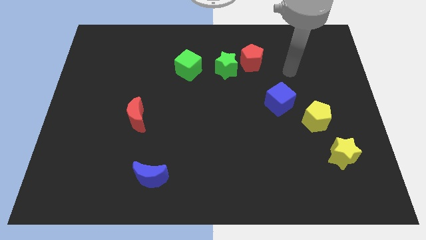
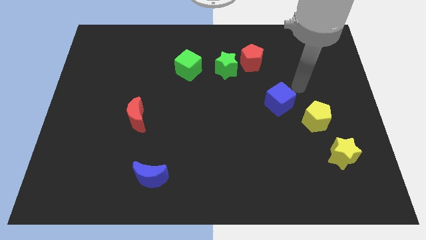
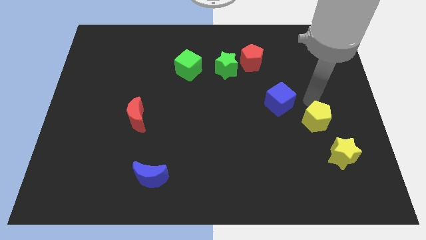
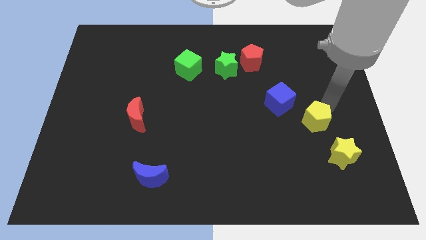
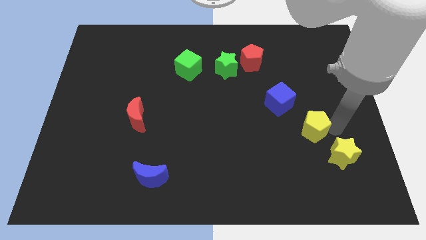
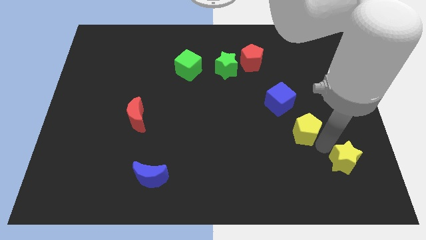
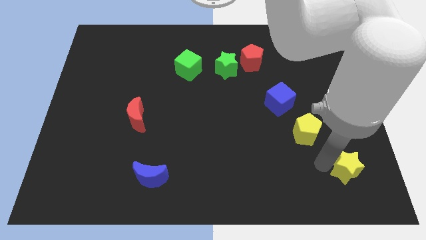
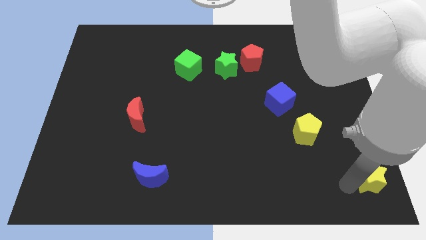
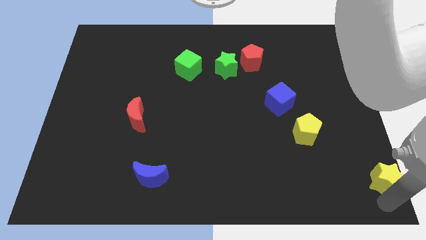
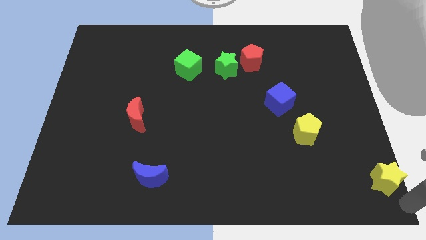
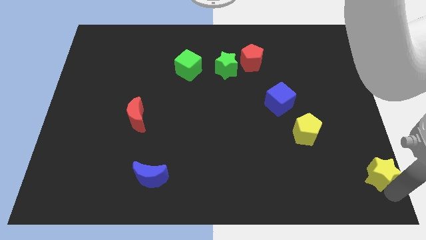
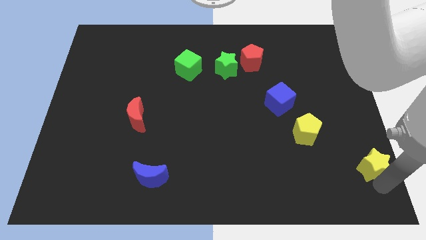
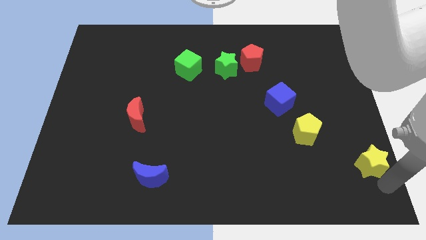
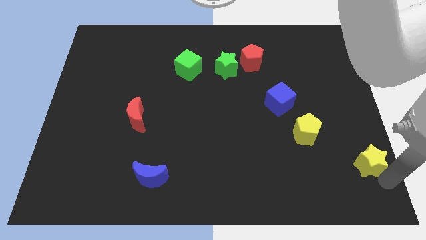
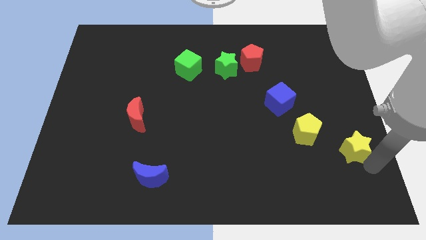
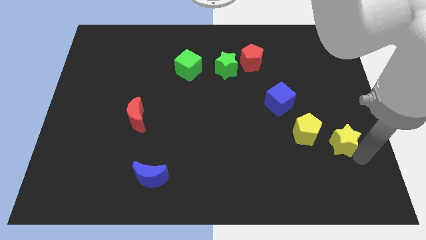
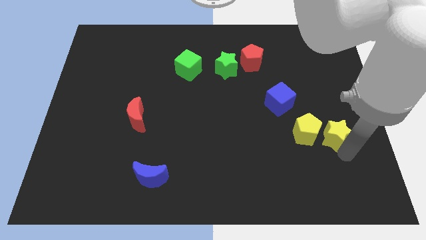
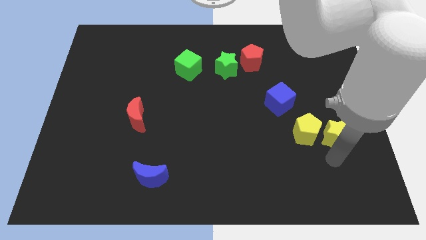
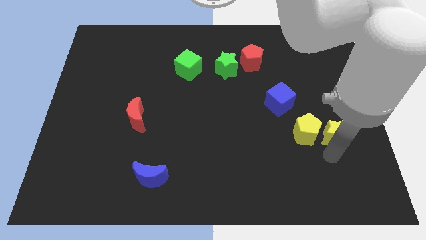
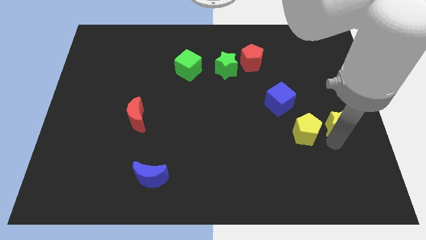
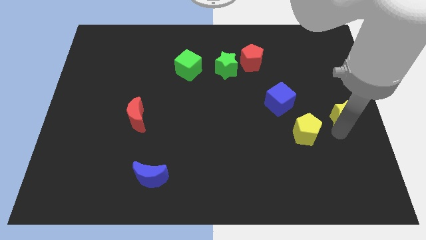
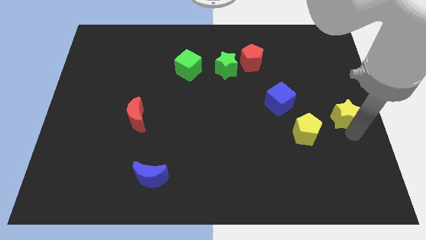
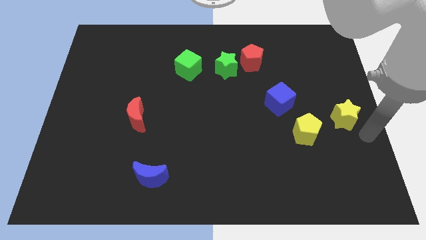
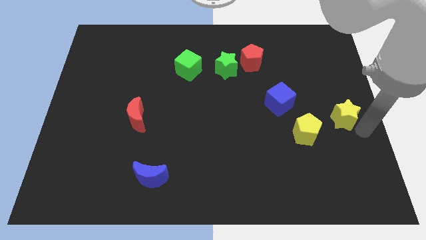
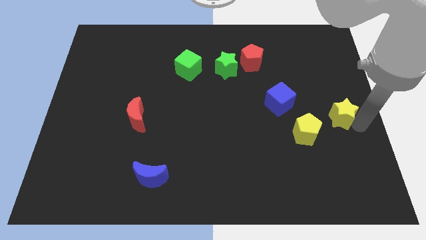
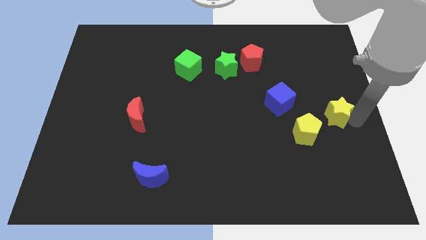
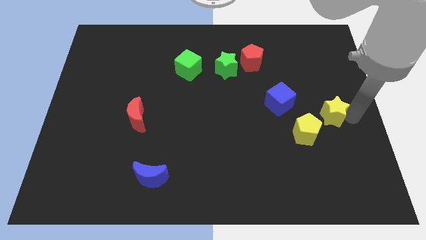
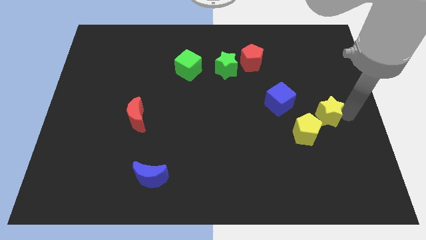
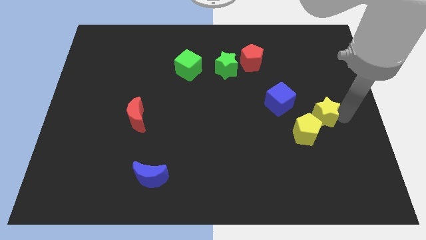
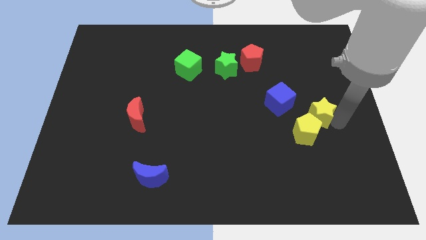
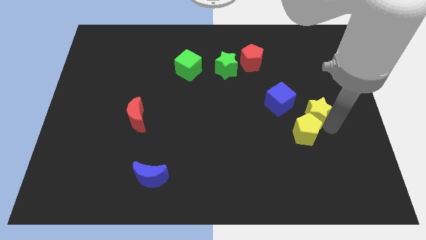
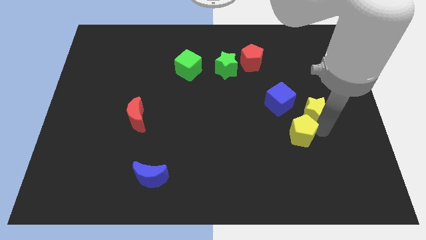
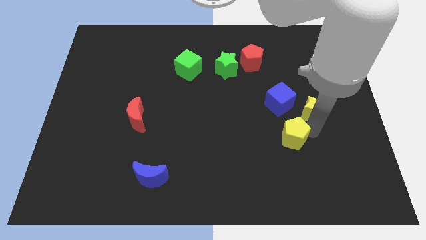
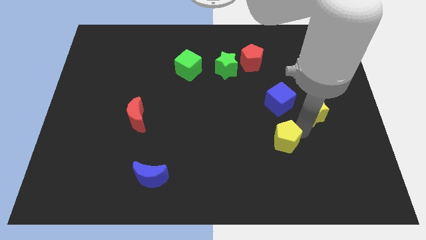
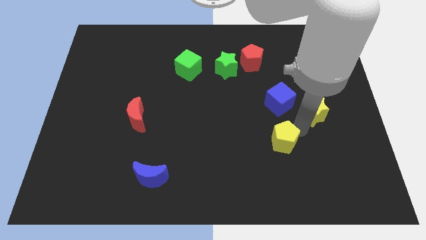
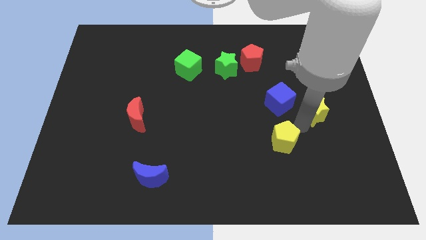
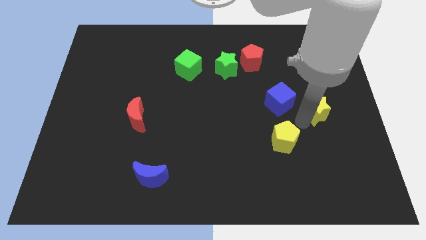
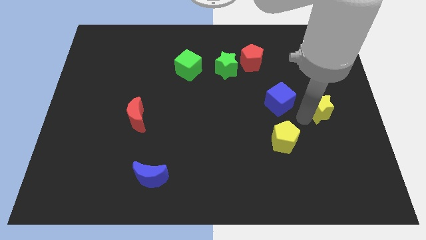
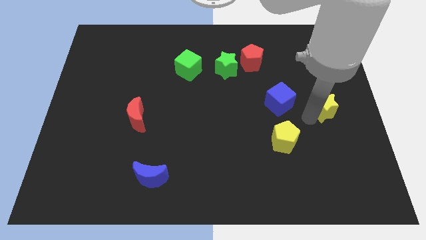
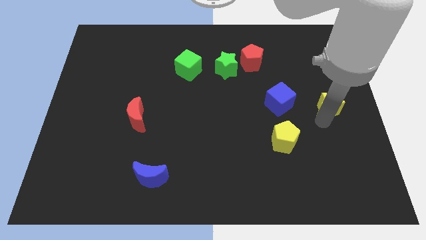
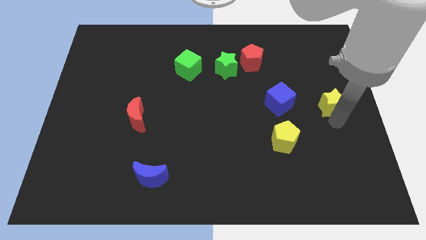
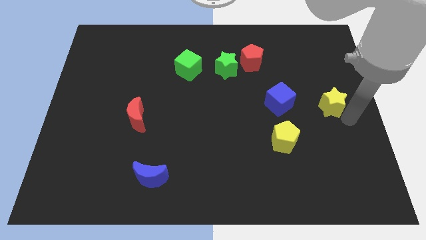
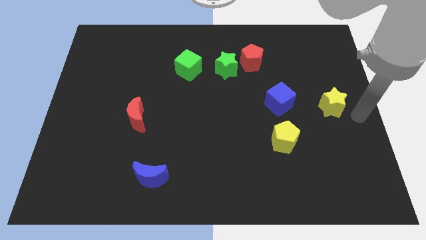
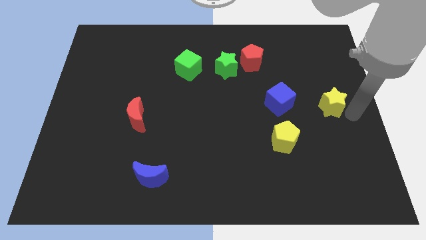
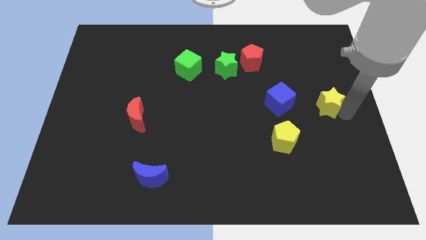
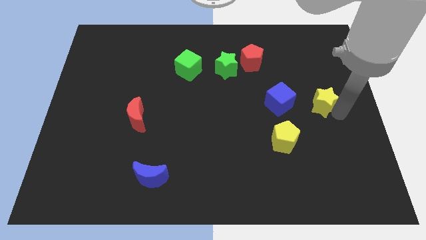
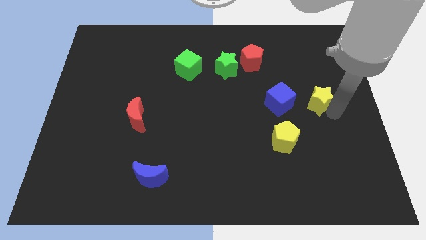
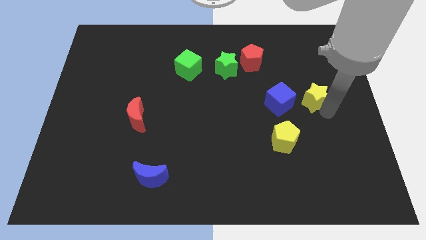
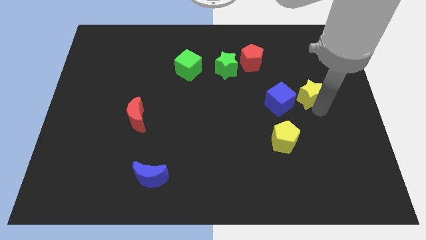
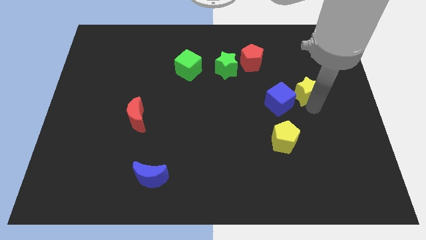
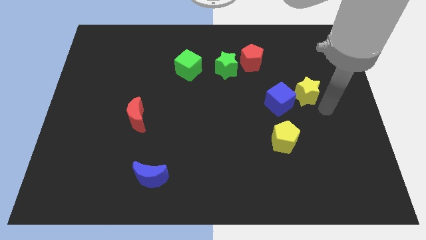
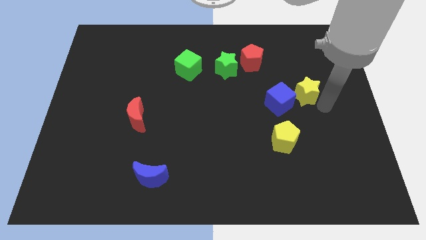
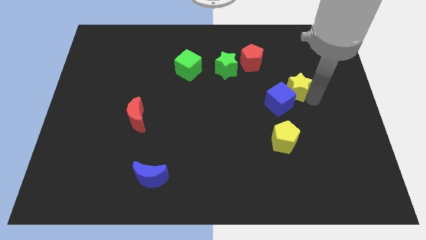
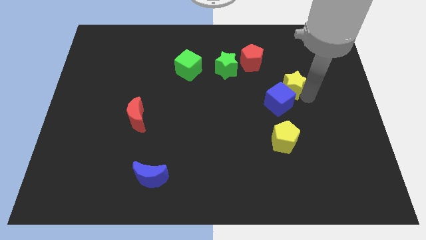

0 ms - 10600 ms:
push the yellow star to the top of the blue cube

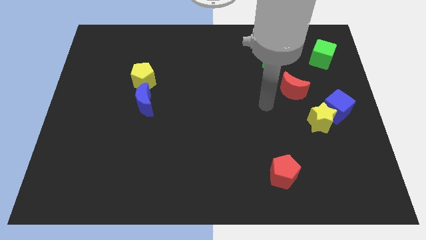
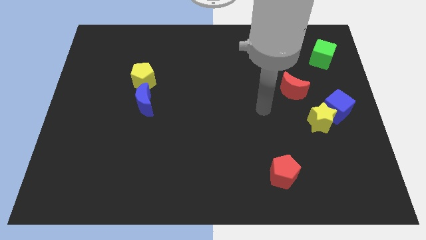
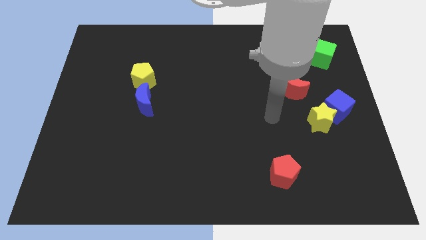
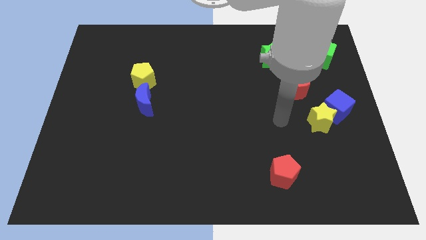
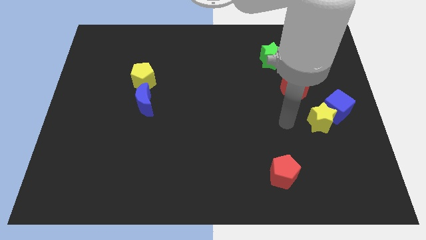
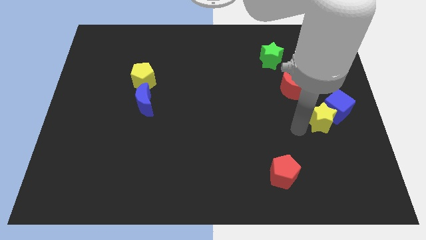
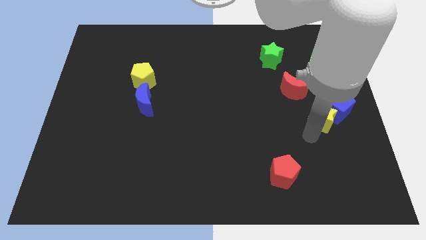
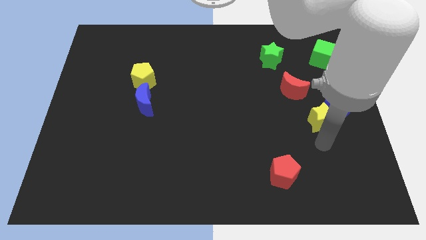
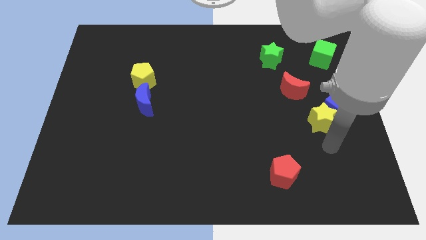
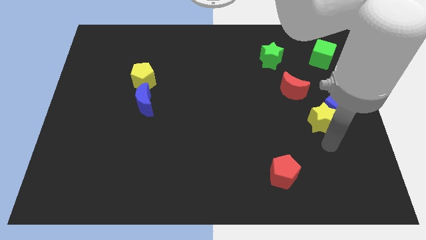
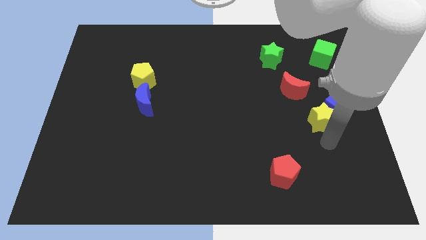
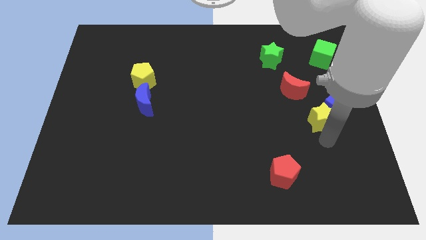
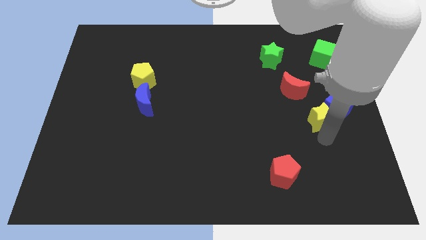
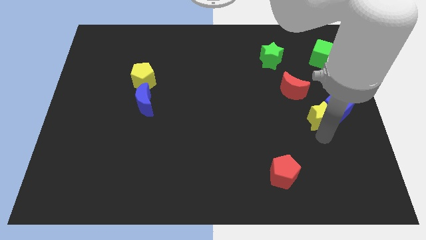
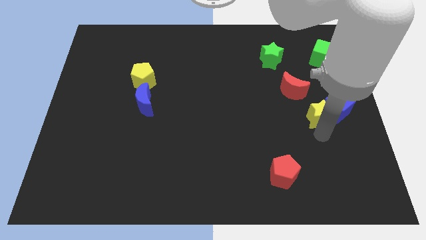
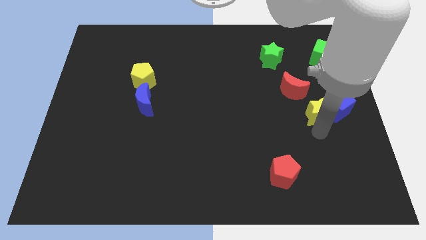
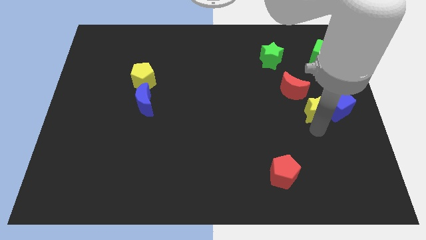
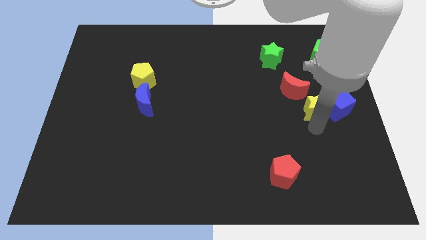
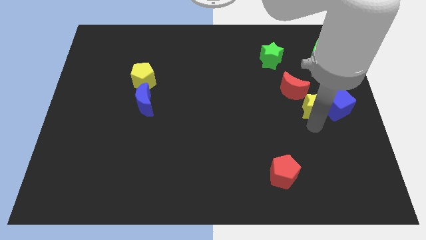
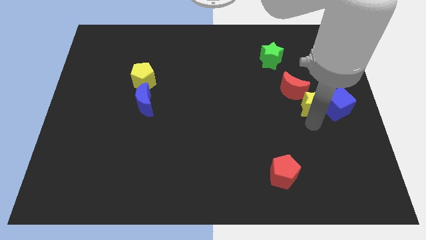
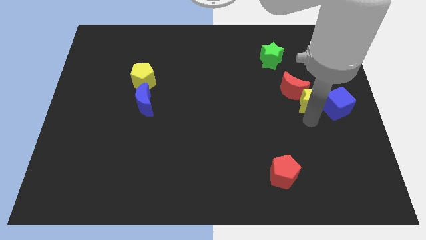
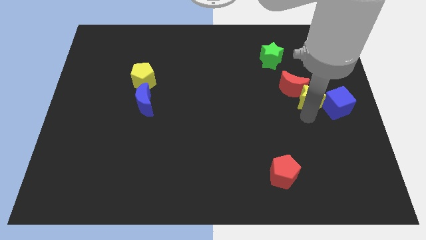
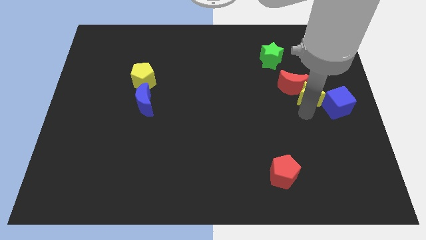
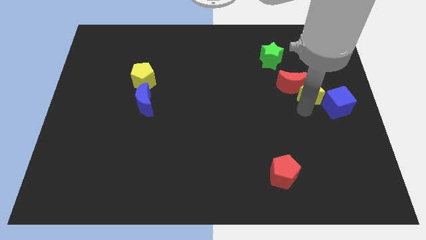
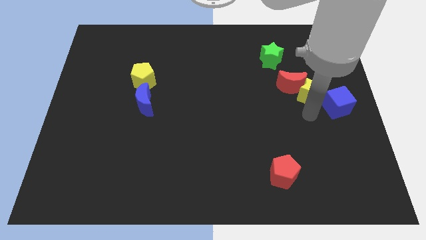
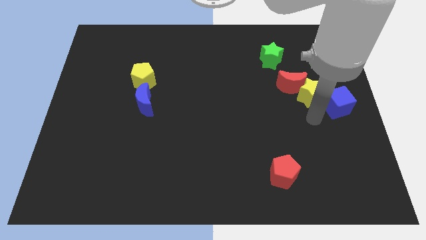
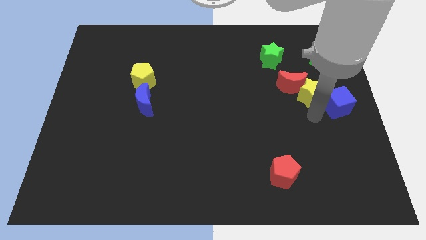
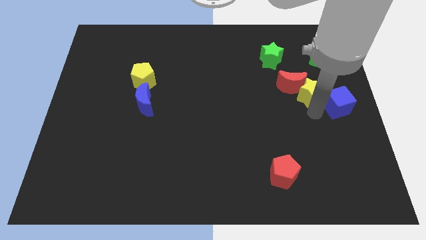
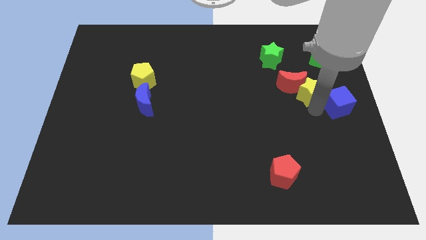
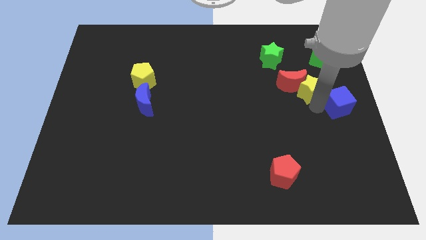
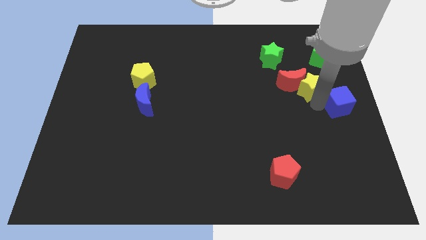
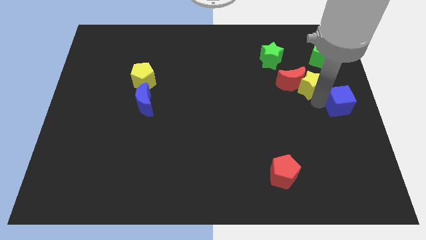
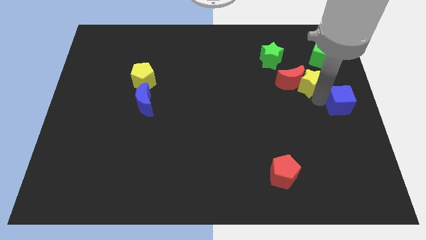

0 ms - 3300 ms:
move the yellow star to the bottom left side of the green cube
